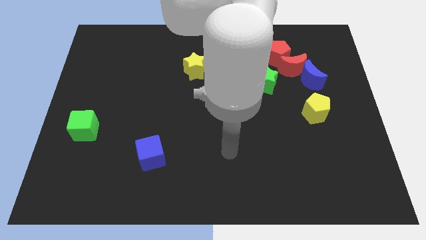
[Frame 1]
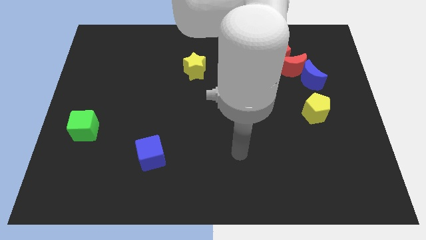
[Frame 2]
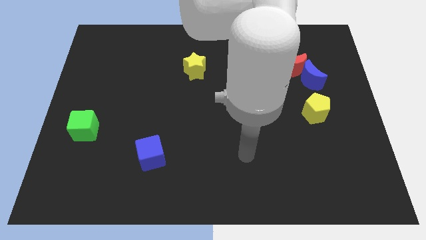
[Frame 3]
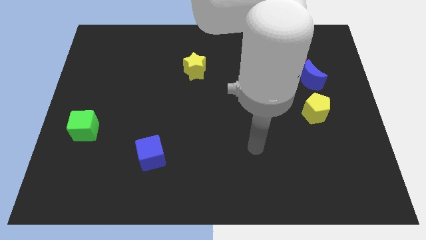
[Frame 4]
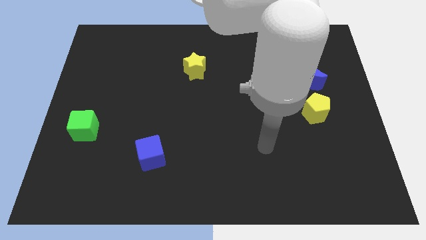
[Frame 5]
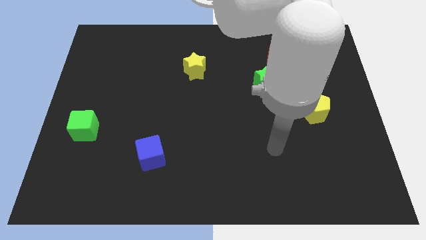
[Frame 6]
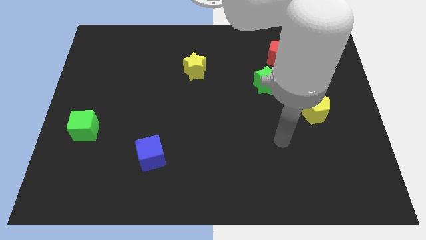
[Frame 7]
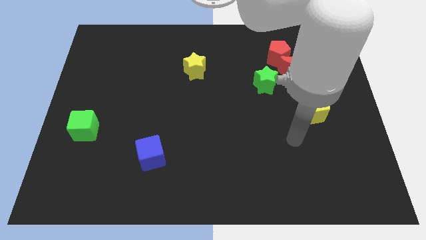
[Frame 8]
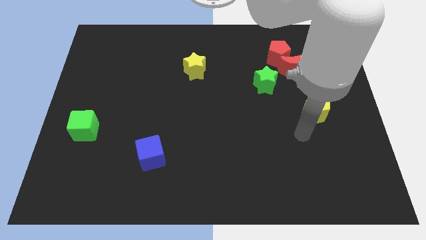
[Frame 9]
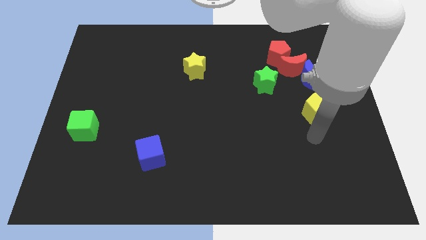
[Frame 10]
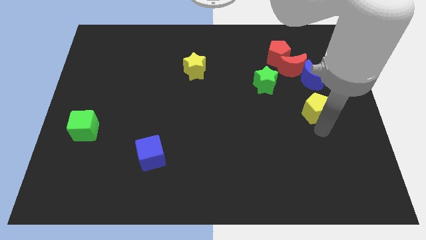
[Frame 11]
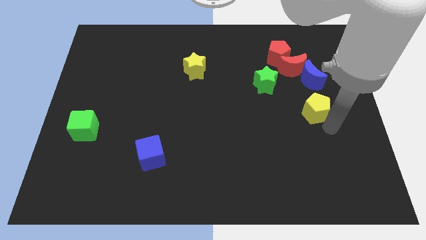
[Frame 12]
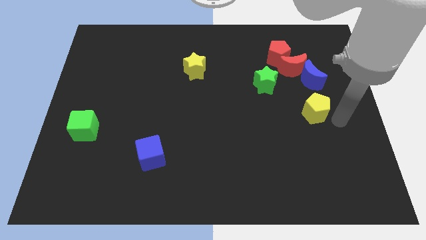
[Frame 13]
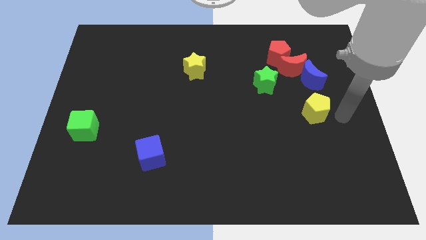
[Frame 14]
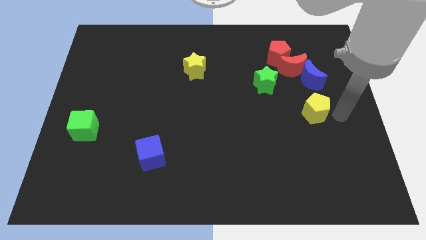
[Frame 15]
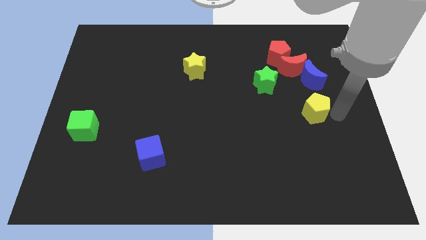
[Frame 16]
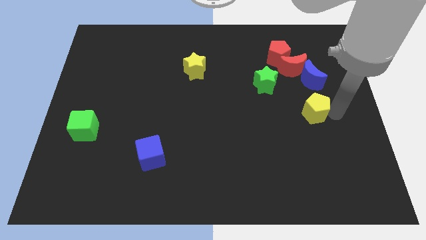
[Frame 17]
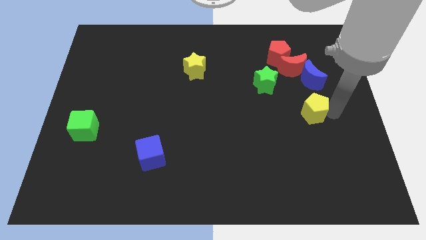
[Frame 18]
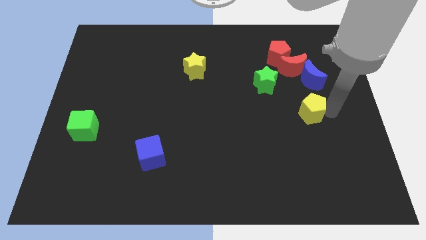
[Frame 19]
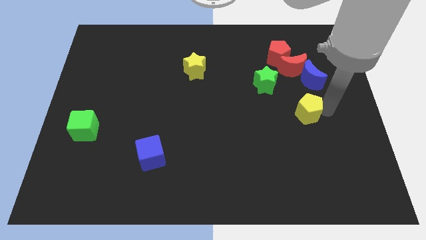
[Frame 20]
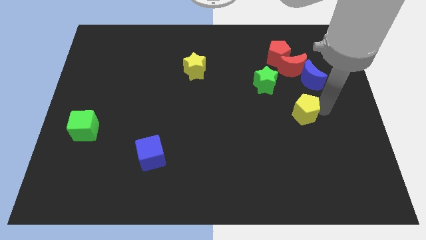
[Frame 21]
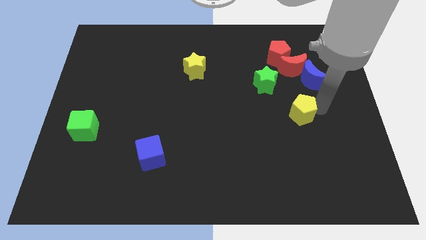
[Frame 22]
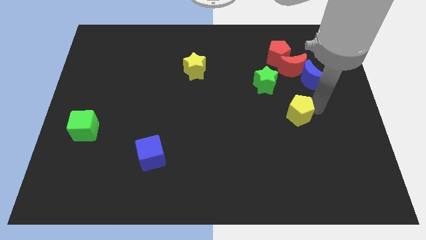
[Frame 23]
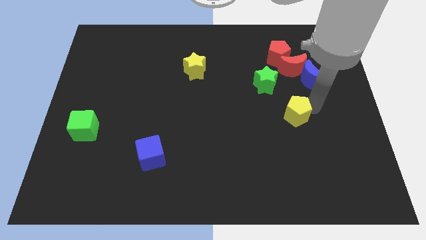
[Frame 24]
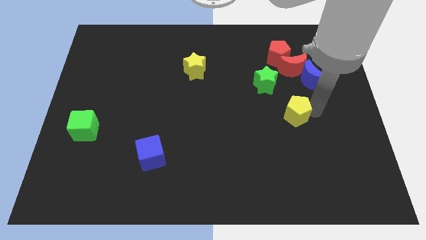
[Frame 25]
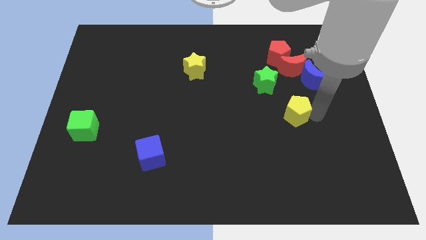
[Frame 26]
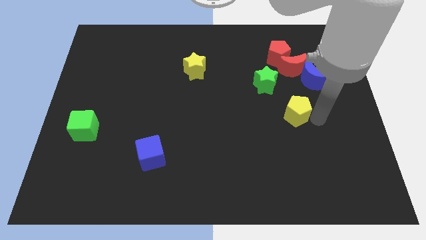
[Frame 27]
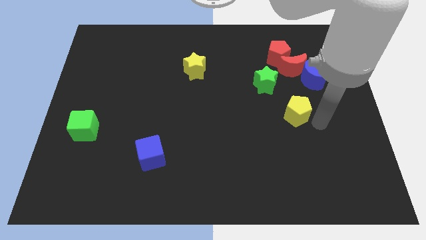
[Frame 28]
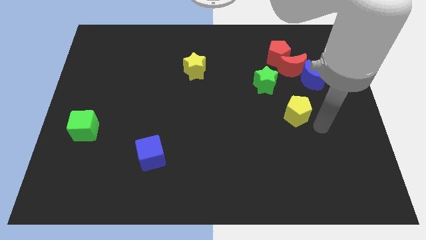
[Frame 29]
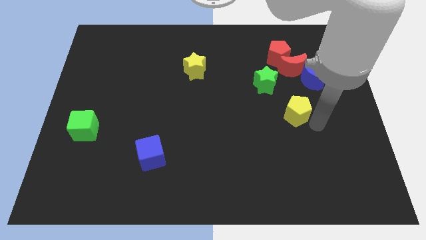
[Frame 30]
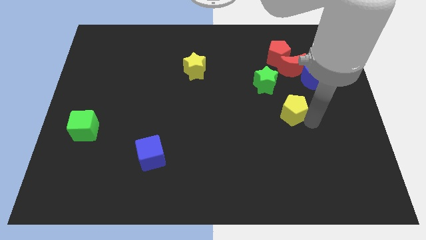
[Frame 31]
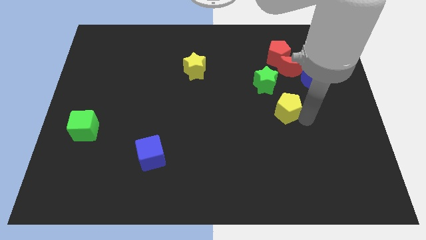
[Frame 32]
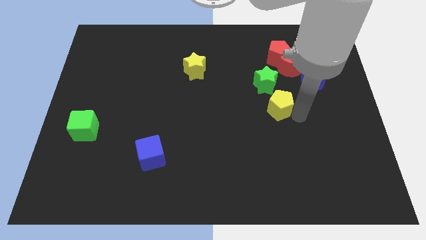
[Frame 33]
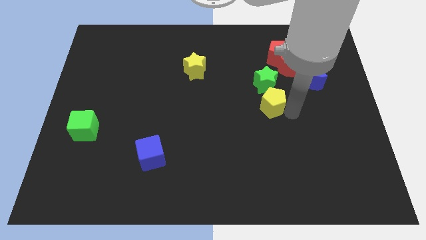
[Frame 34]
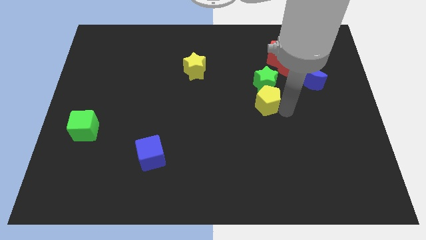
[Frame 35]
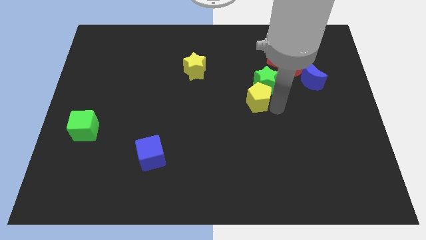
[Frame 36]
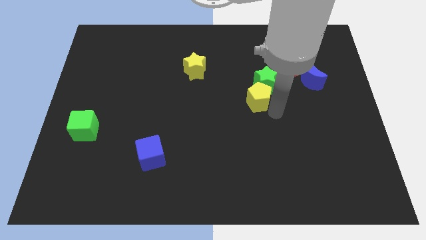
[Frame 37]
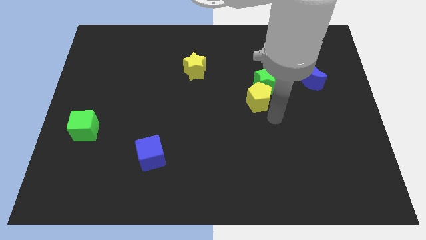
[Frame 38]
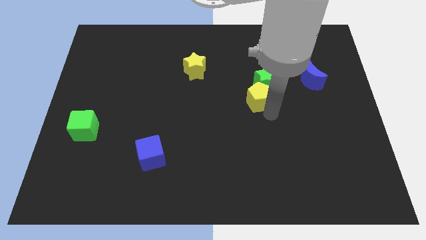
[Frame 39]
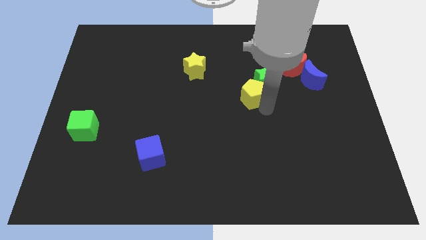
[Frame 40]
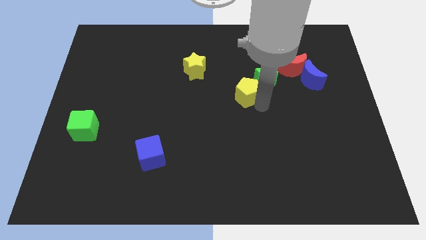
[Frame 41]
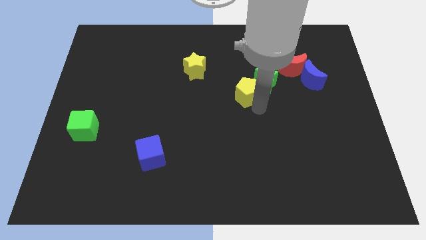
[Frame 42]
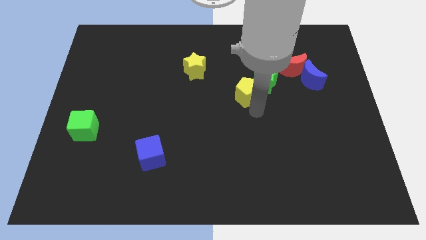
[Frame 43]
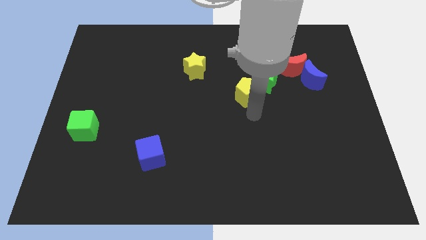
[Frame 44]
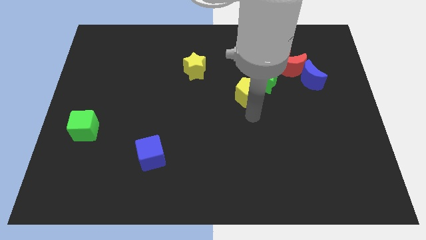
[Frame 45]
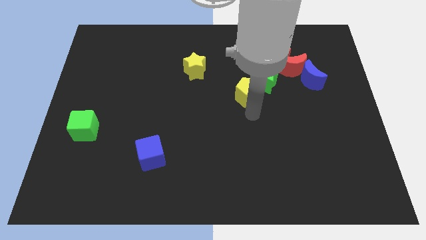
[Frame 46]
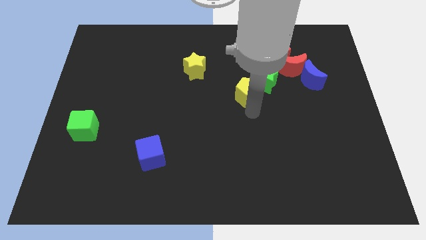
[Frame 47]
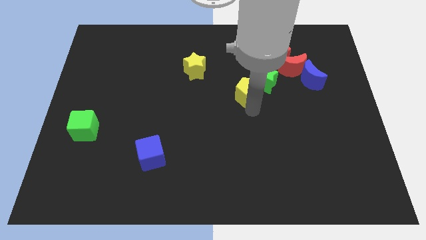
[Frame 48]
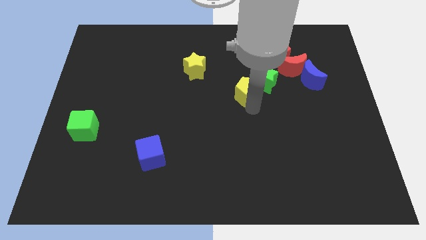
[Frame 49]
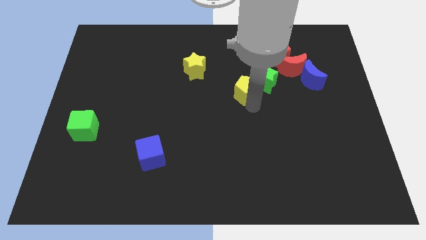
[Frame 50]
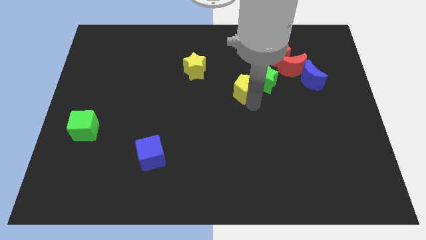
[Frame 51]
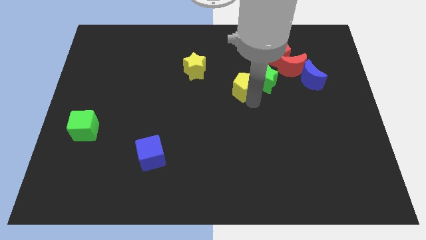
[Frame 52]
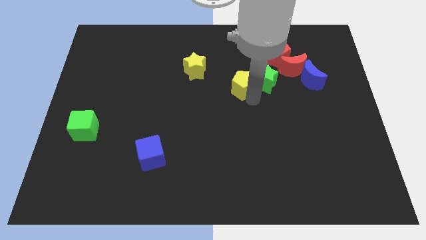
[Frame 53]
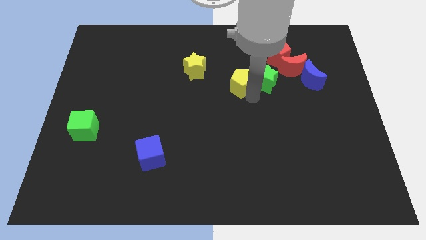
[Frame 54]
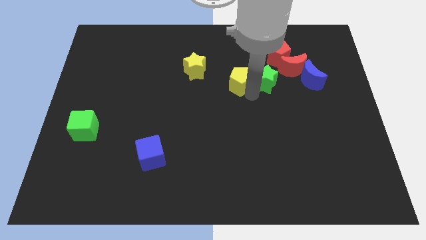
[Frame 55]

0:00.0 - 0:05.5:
slide the yellow pentagon to the right side of the yellow star

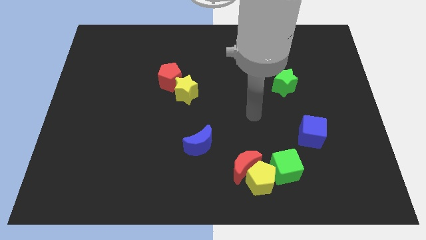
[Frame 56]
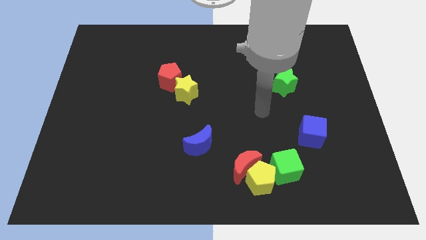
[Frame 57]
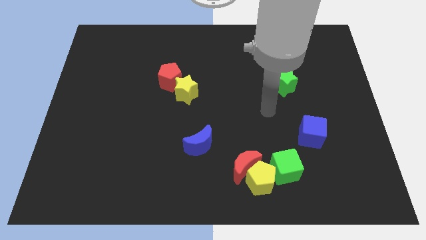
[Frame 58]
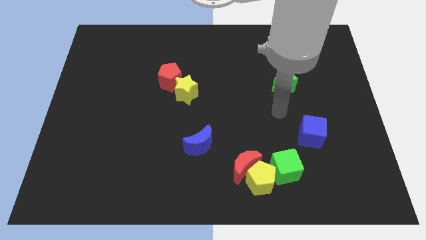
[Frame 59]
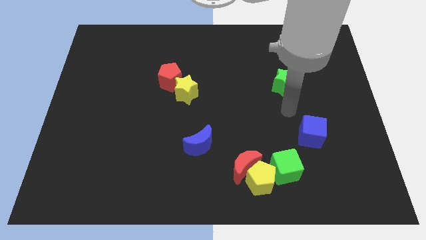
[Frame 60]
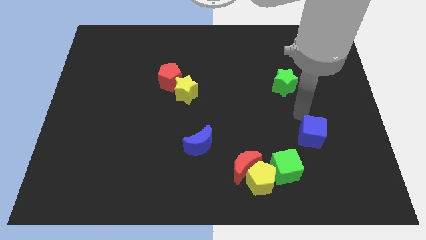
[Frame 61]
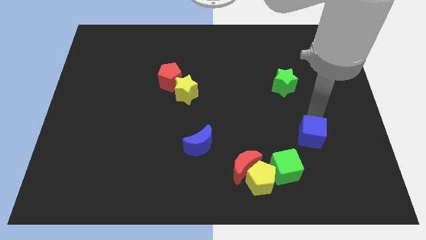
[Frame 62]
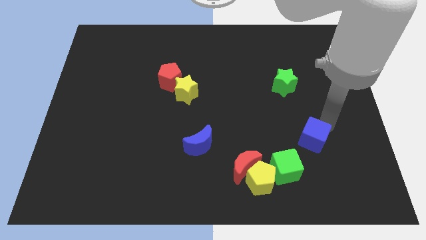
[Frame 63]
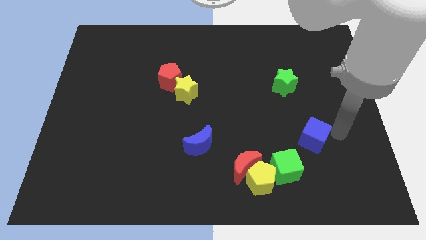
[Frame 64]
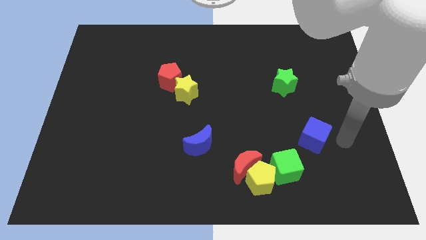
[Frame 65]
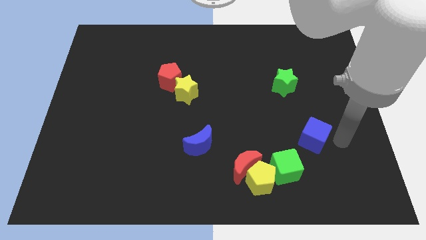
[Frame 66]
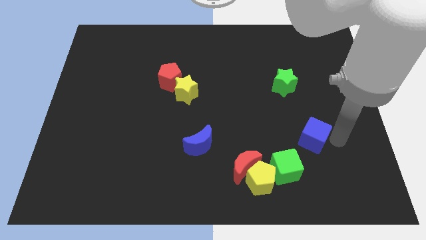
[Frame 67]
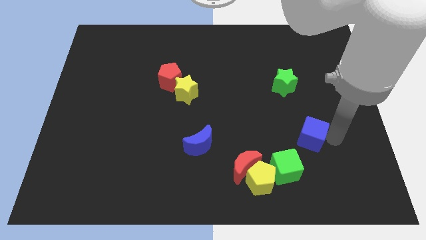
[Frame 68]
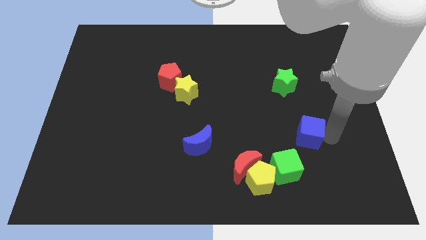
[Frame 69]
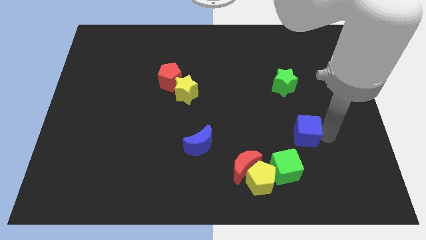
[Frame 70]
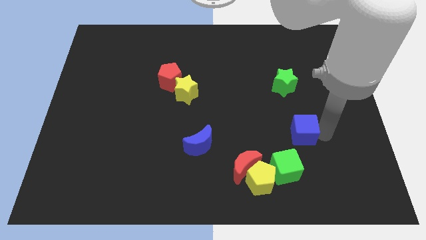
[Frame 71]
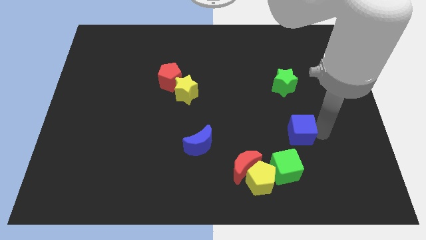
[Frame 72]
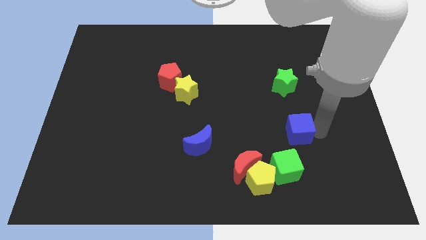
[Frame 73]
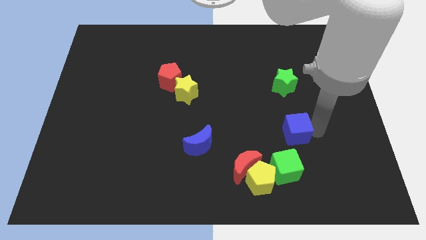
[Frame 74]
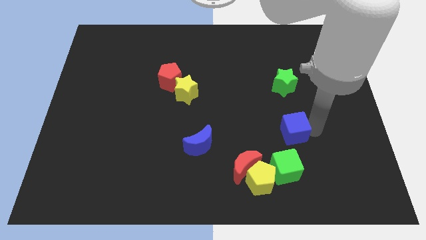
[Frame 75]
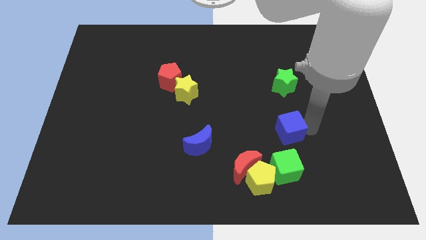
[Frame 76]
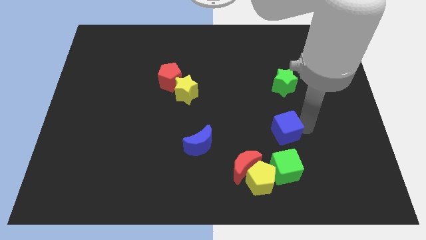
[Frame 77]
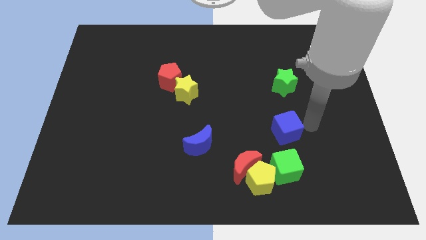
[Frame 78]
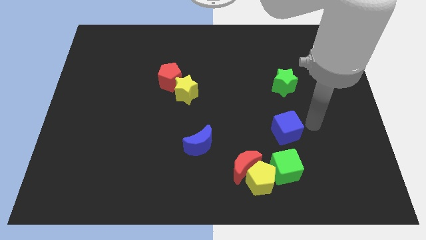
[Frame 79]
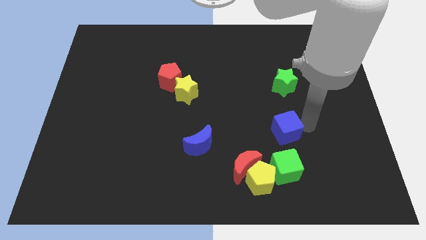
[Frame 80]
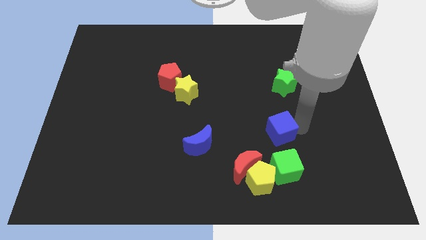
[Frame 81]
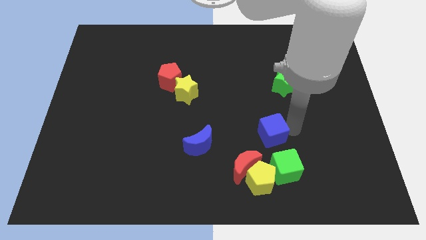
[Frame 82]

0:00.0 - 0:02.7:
put the blue cube to the top side of the yellow pentagon

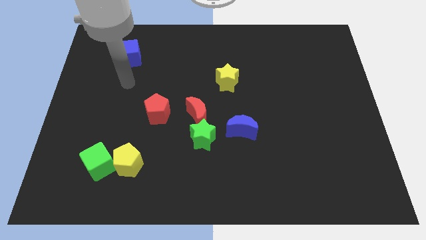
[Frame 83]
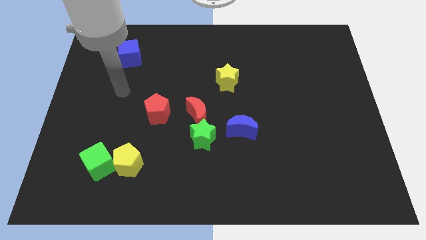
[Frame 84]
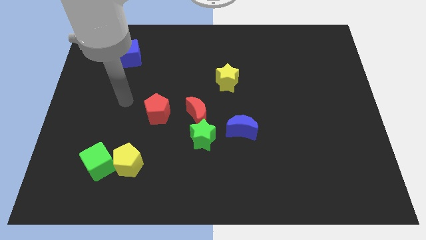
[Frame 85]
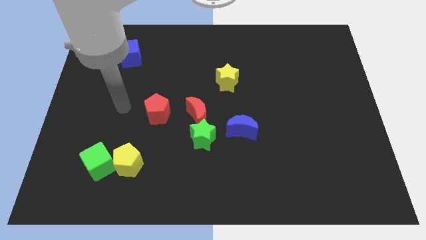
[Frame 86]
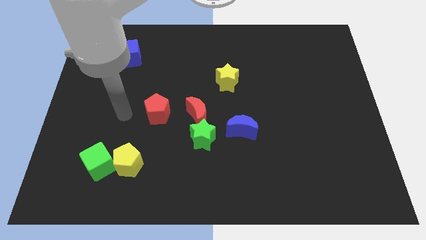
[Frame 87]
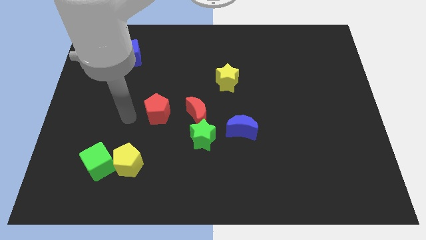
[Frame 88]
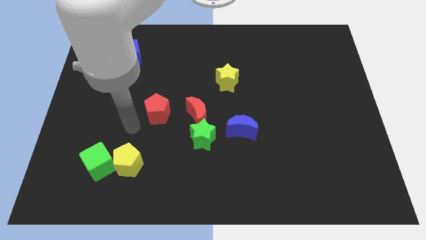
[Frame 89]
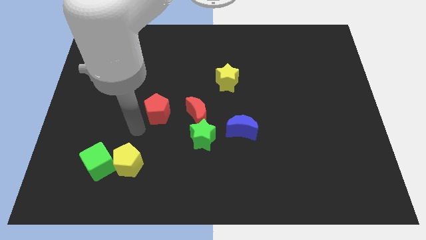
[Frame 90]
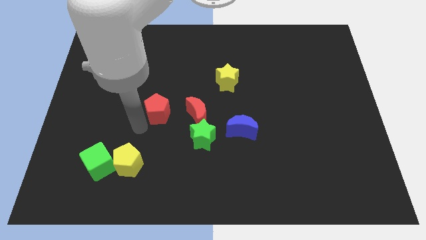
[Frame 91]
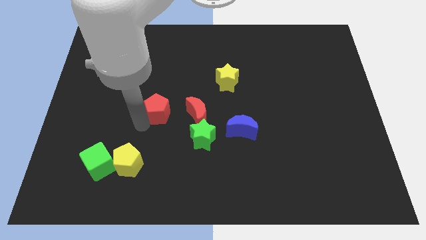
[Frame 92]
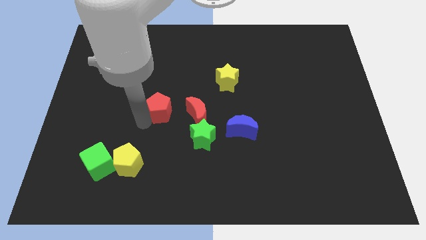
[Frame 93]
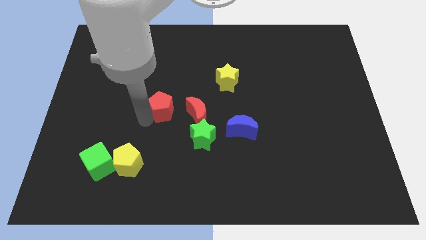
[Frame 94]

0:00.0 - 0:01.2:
slide the red pentagon diagonally up and to the left of the red moon
